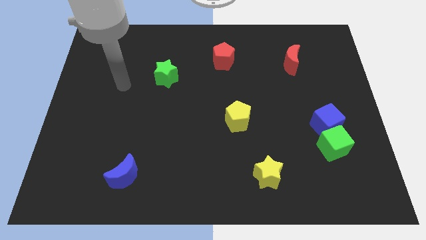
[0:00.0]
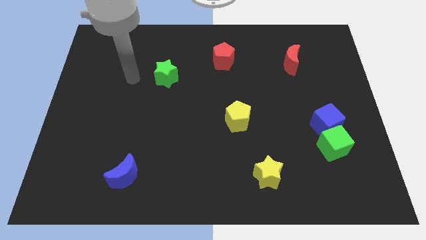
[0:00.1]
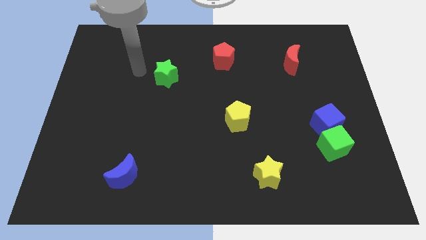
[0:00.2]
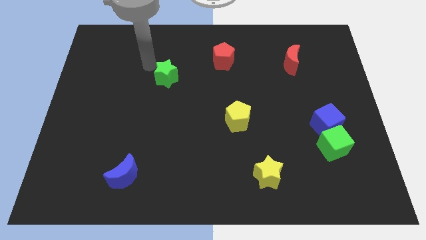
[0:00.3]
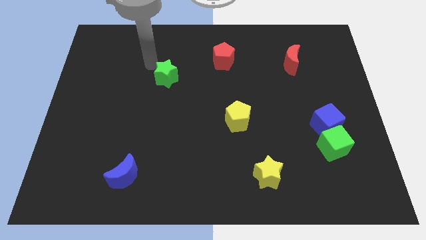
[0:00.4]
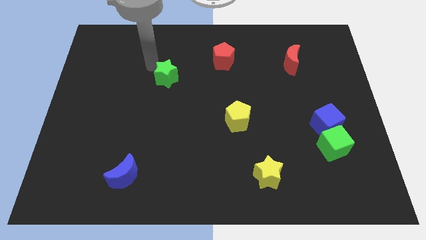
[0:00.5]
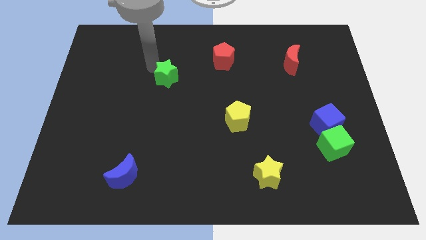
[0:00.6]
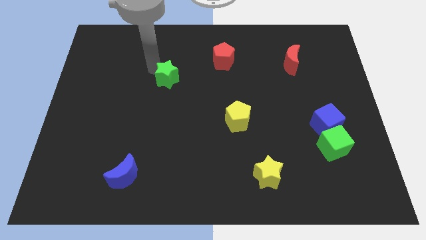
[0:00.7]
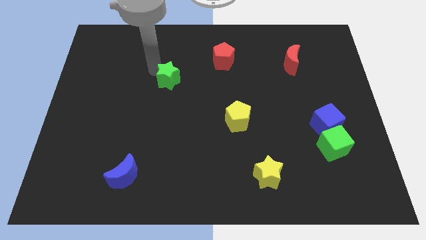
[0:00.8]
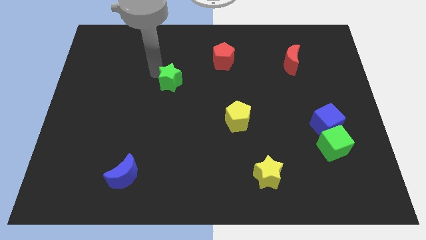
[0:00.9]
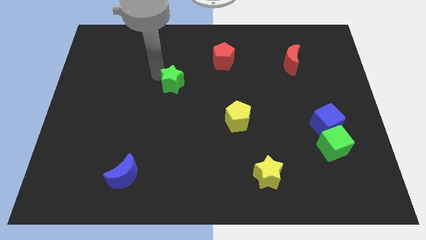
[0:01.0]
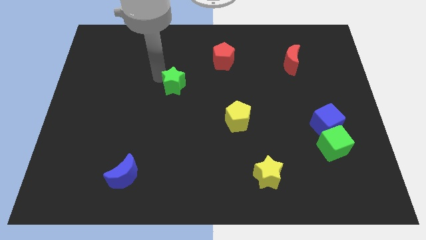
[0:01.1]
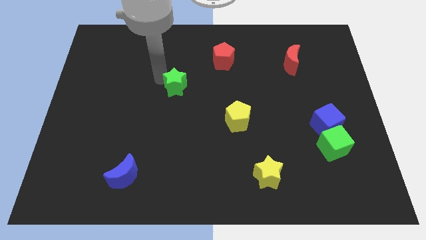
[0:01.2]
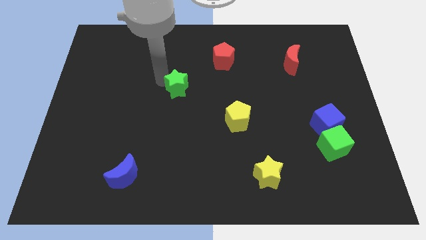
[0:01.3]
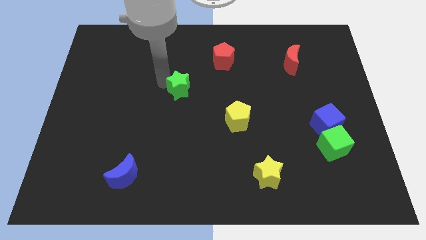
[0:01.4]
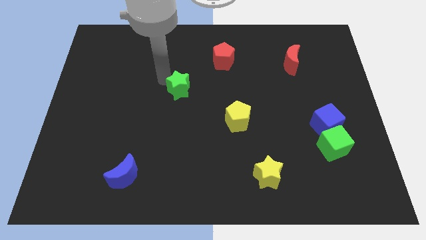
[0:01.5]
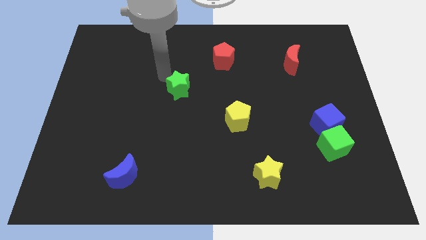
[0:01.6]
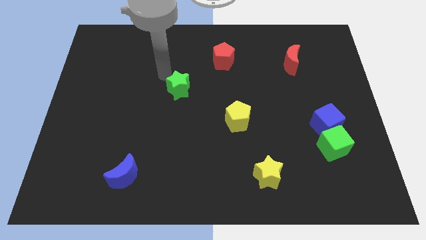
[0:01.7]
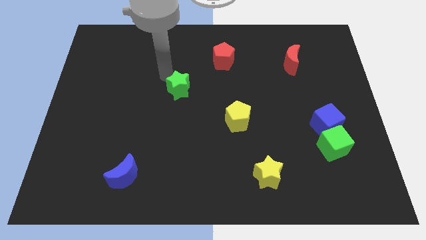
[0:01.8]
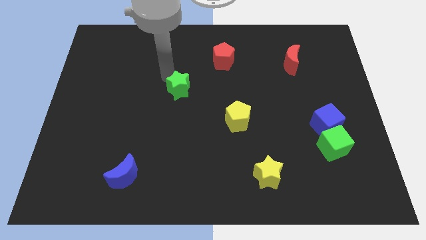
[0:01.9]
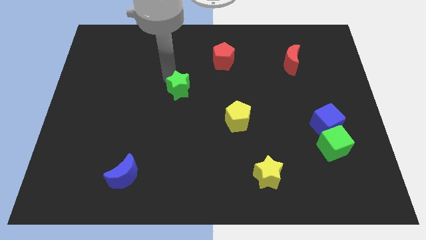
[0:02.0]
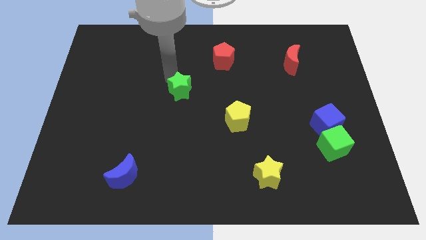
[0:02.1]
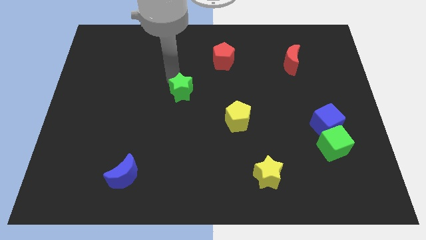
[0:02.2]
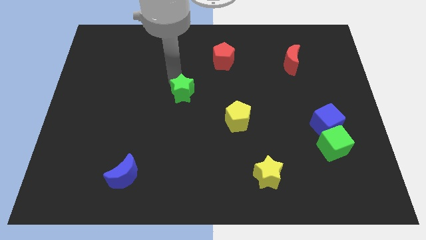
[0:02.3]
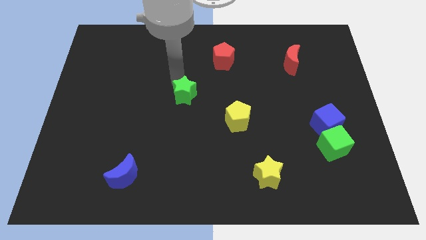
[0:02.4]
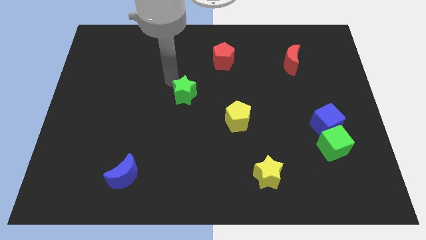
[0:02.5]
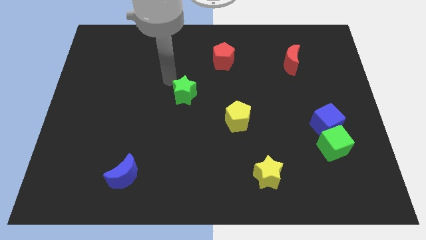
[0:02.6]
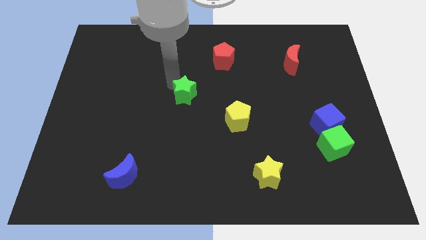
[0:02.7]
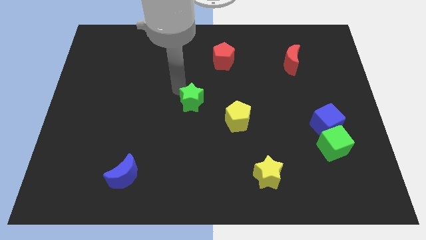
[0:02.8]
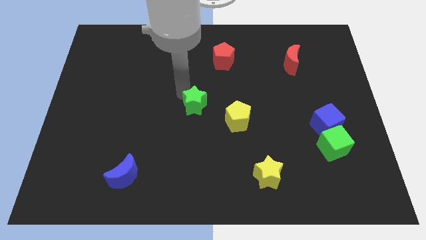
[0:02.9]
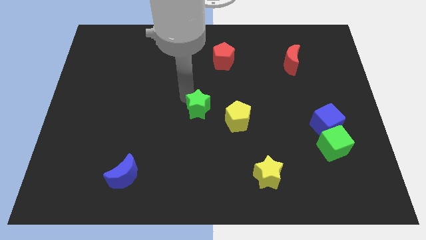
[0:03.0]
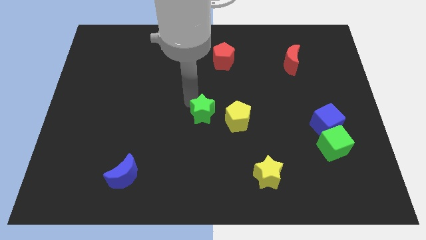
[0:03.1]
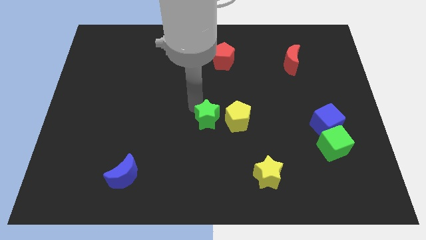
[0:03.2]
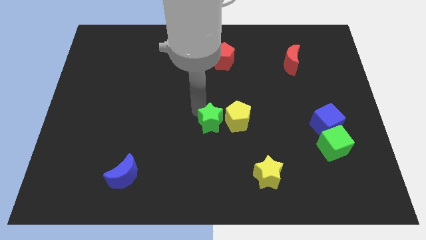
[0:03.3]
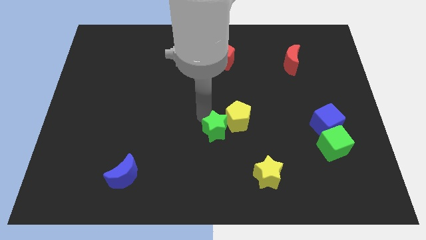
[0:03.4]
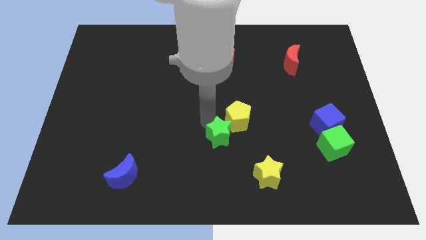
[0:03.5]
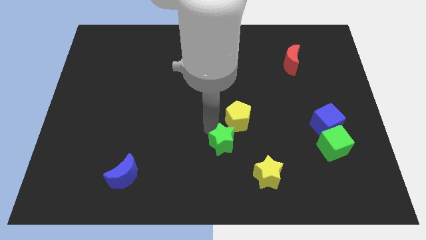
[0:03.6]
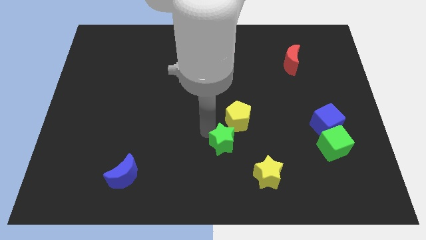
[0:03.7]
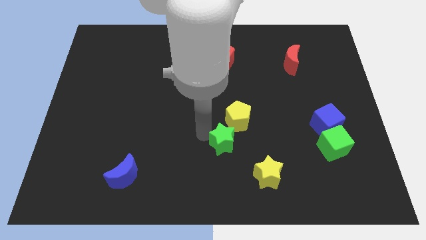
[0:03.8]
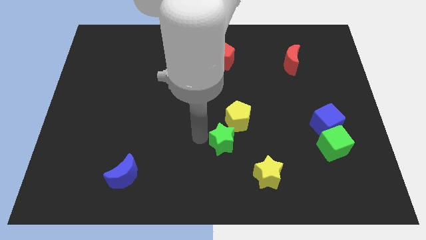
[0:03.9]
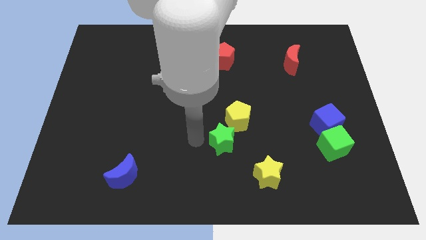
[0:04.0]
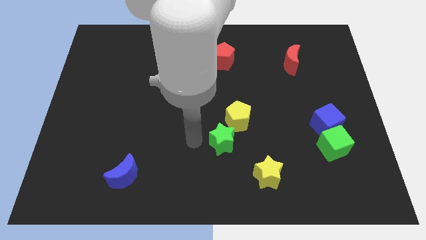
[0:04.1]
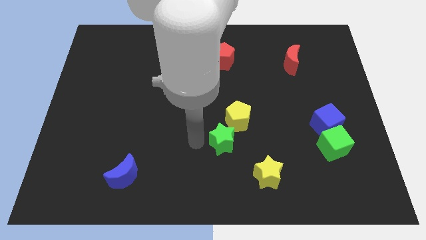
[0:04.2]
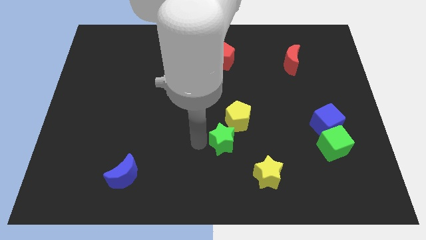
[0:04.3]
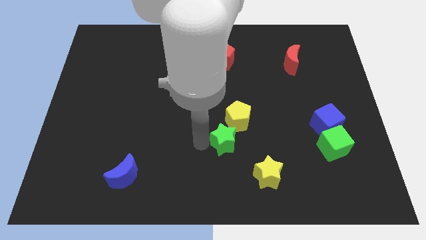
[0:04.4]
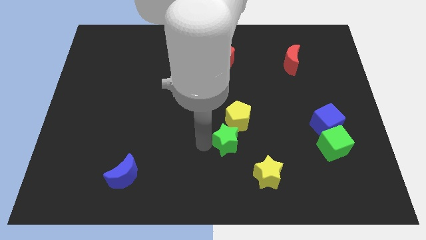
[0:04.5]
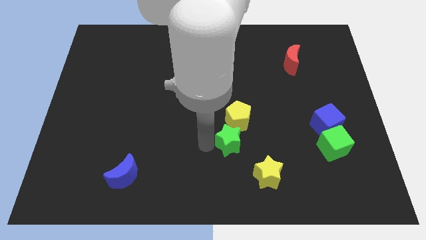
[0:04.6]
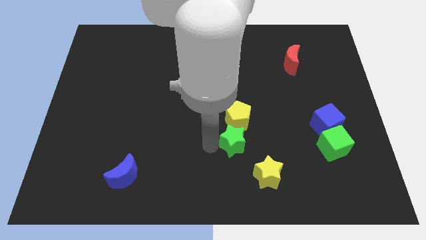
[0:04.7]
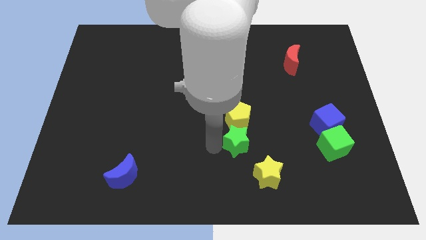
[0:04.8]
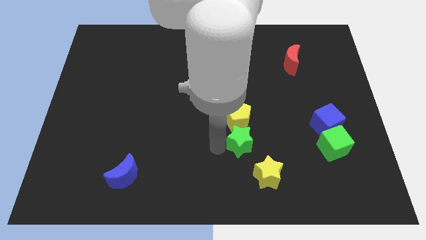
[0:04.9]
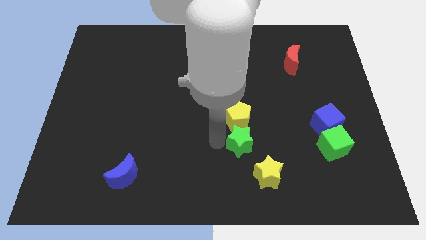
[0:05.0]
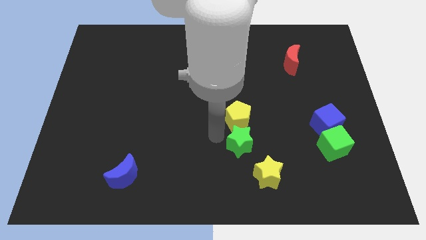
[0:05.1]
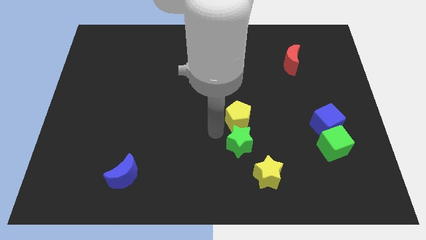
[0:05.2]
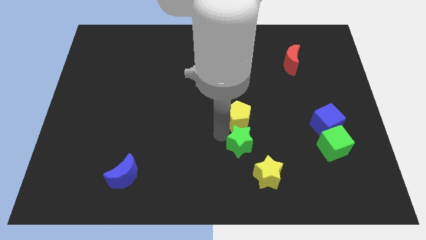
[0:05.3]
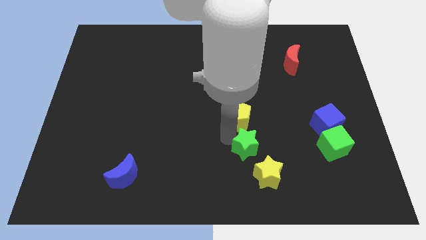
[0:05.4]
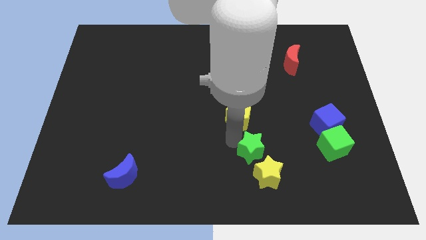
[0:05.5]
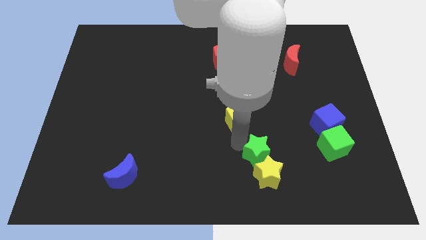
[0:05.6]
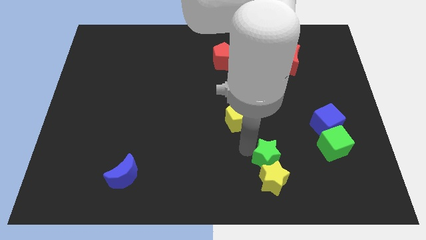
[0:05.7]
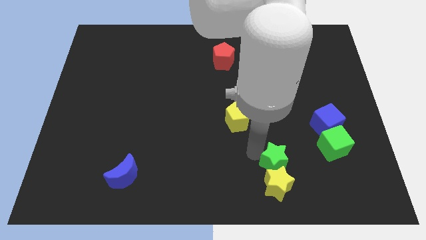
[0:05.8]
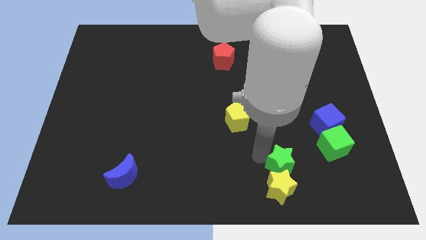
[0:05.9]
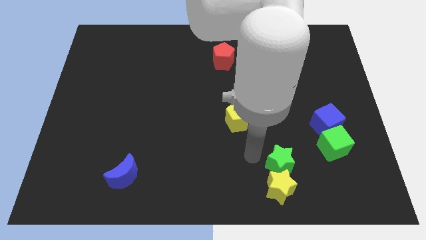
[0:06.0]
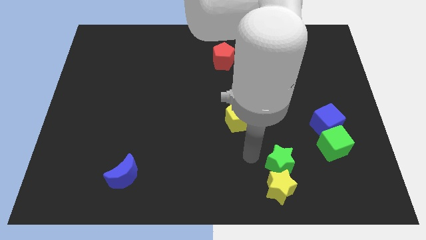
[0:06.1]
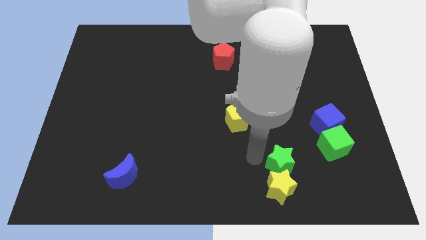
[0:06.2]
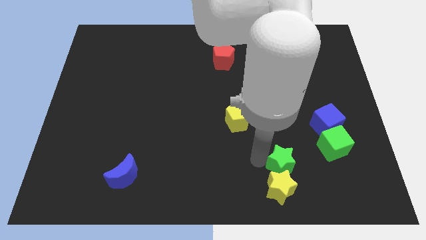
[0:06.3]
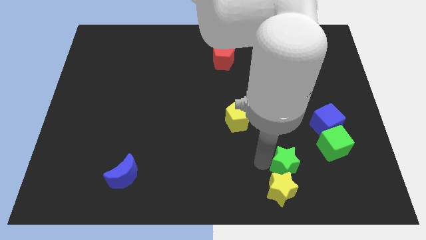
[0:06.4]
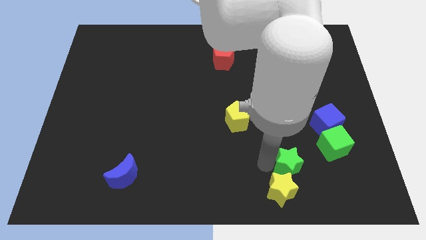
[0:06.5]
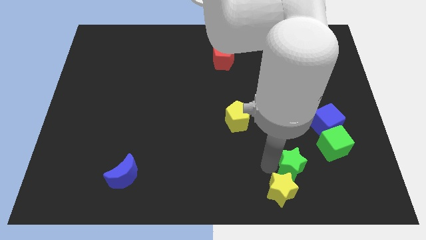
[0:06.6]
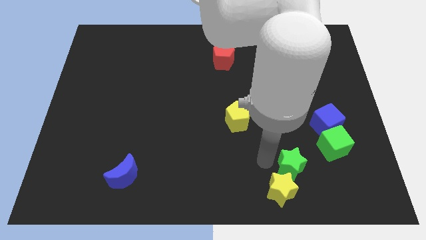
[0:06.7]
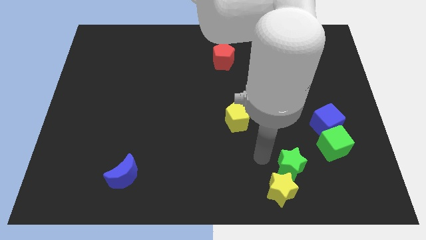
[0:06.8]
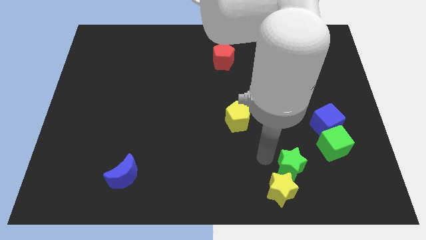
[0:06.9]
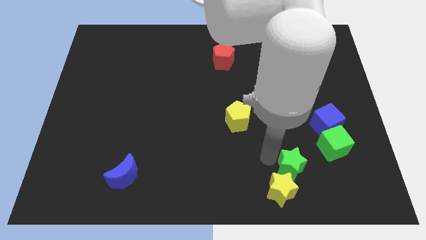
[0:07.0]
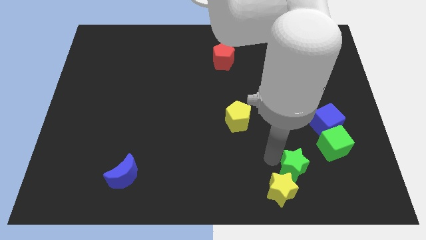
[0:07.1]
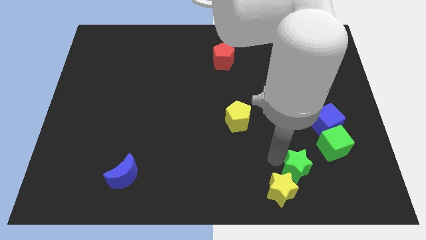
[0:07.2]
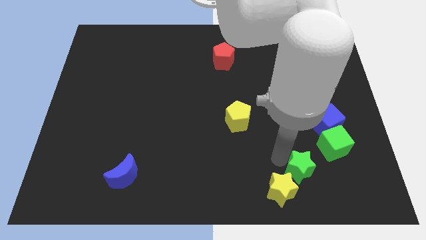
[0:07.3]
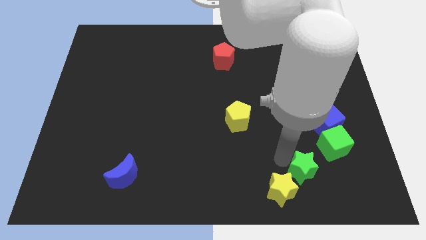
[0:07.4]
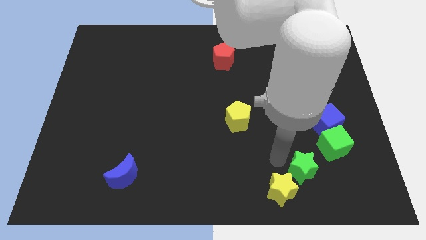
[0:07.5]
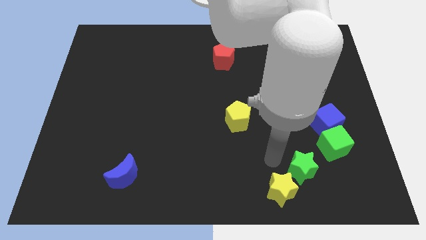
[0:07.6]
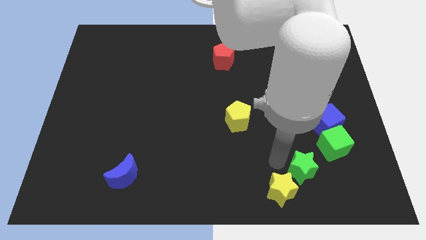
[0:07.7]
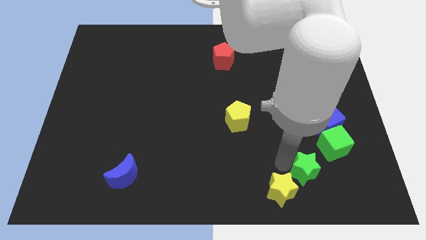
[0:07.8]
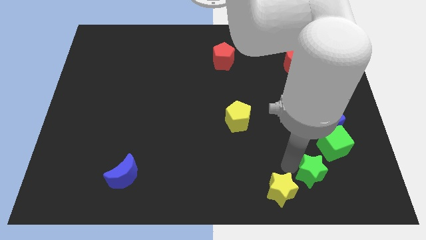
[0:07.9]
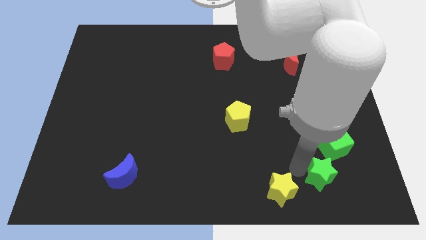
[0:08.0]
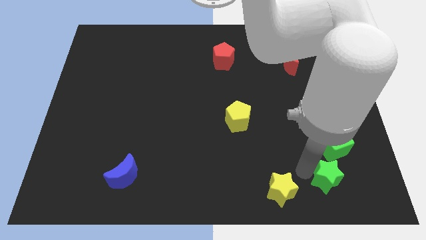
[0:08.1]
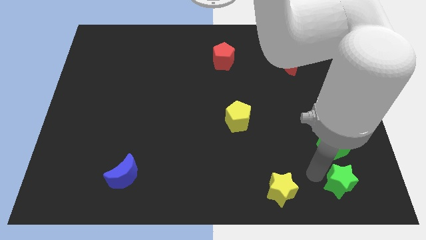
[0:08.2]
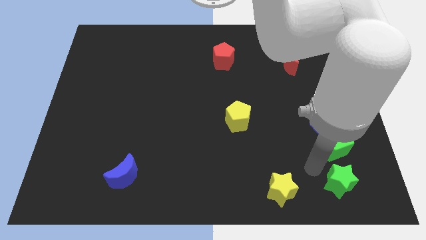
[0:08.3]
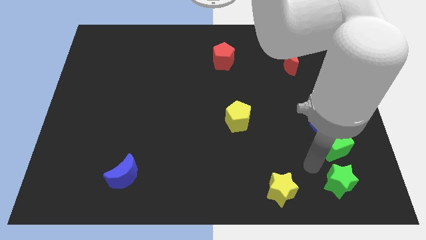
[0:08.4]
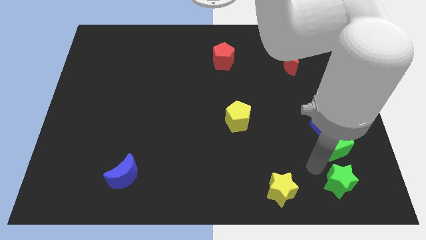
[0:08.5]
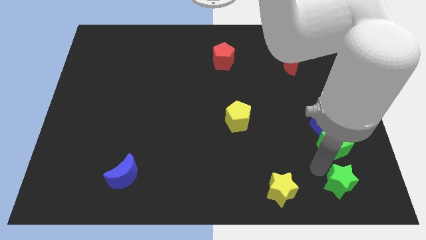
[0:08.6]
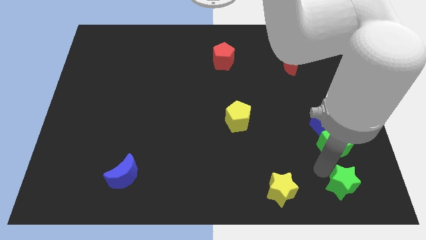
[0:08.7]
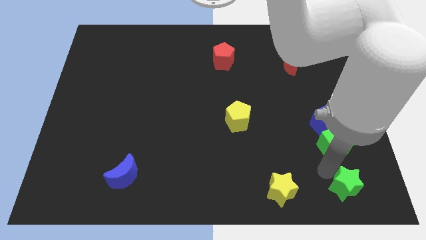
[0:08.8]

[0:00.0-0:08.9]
push the green star to the bottom right of the board
